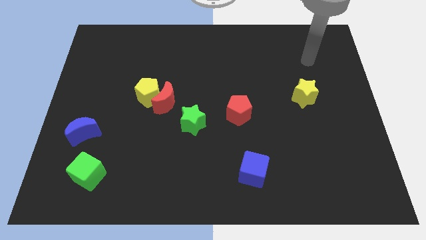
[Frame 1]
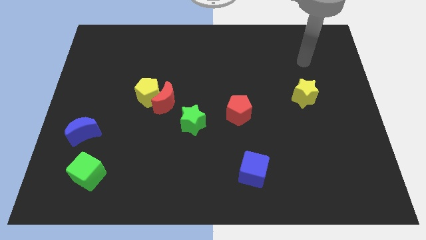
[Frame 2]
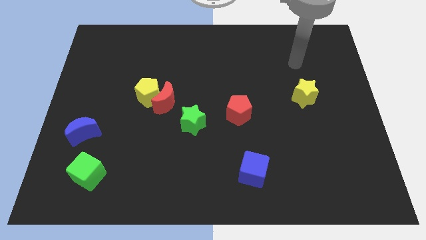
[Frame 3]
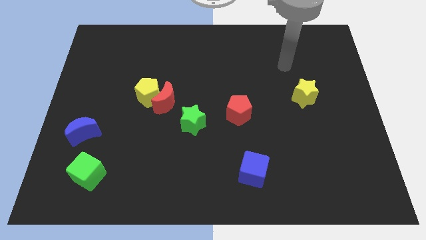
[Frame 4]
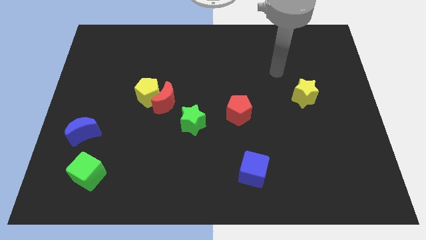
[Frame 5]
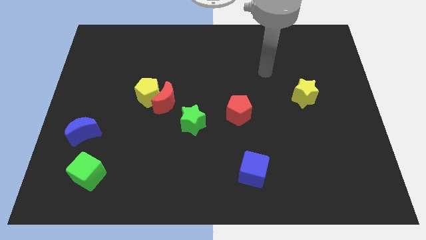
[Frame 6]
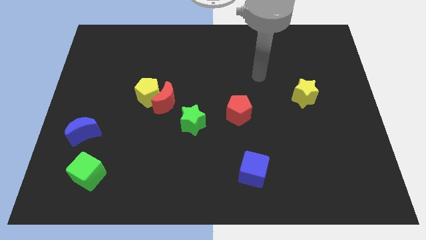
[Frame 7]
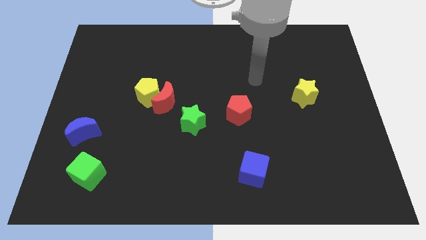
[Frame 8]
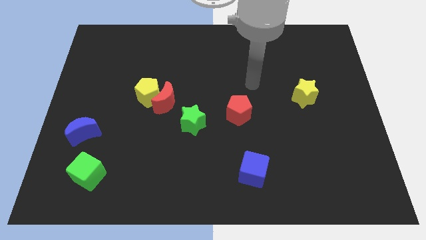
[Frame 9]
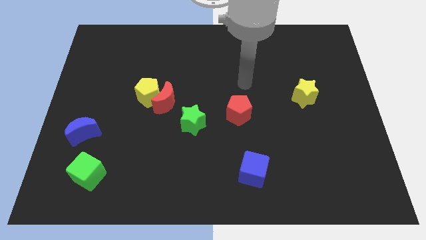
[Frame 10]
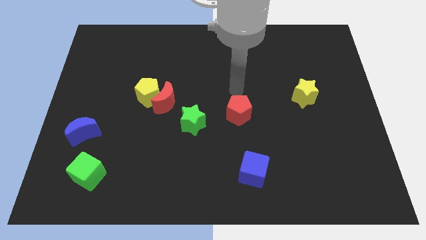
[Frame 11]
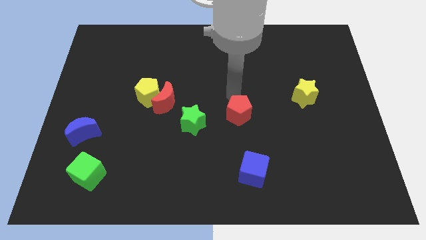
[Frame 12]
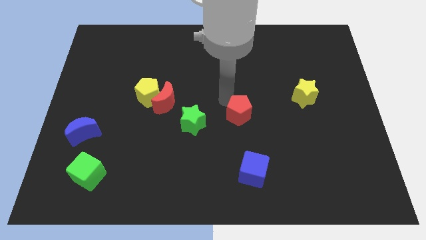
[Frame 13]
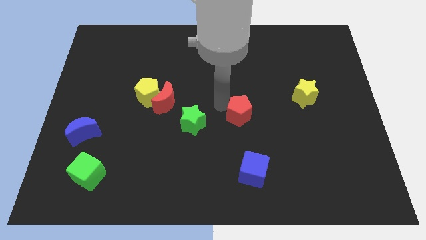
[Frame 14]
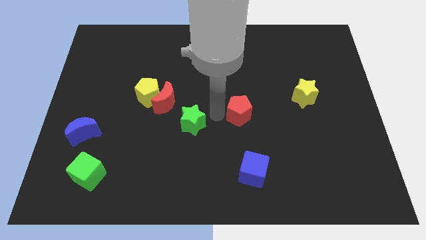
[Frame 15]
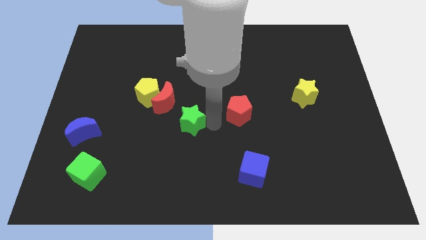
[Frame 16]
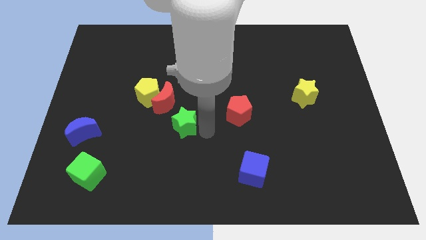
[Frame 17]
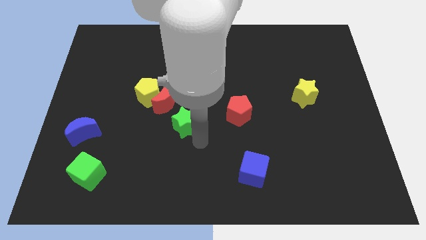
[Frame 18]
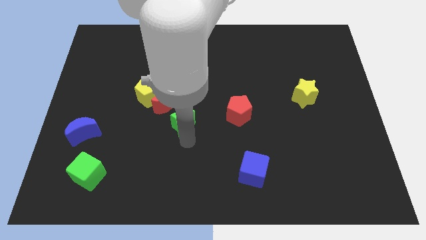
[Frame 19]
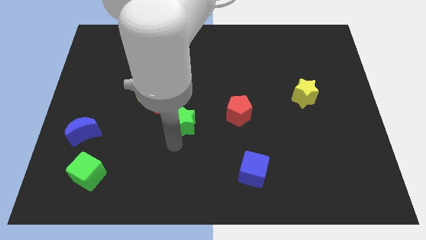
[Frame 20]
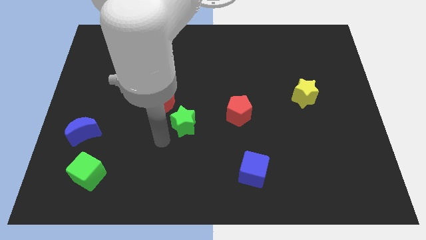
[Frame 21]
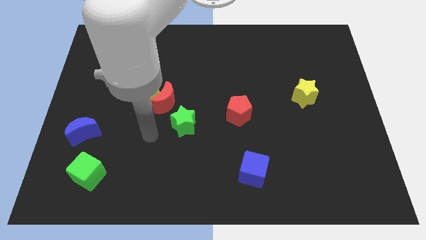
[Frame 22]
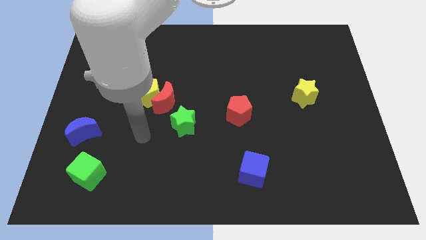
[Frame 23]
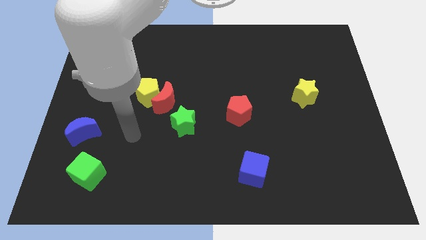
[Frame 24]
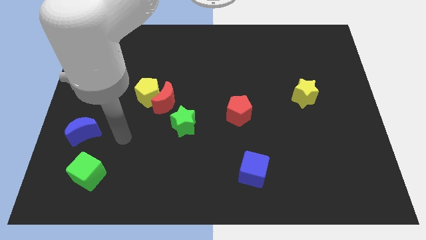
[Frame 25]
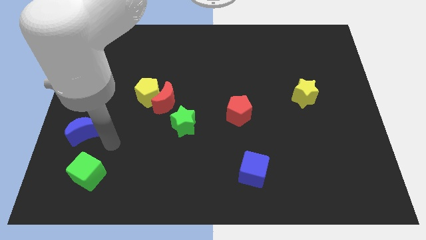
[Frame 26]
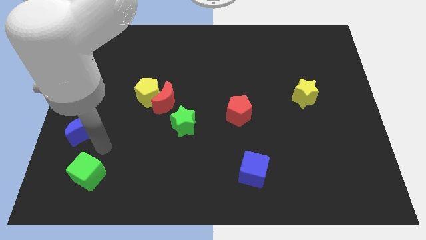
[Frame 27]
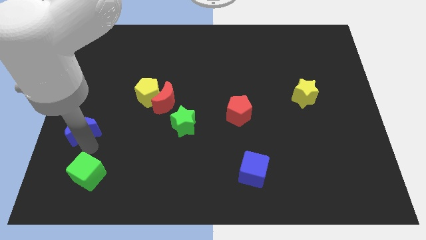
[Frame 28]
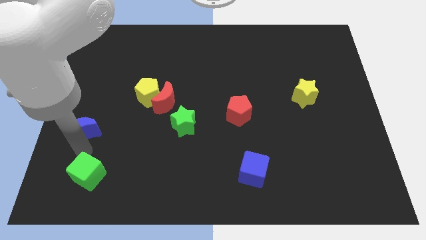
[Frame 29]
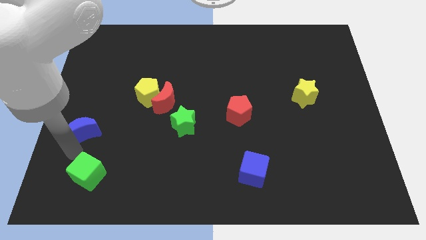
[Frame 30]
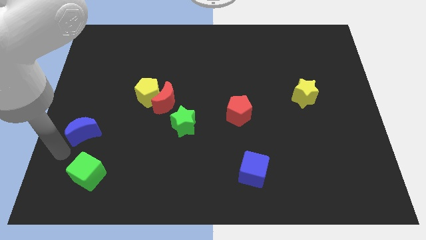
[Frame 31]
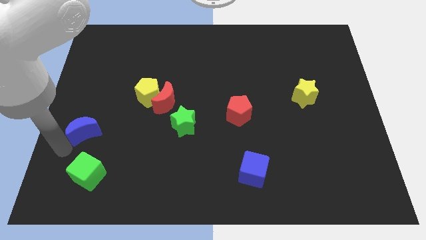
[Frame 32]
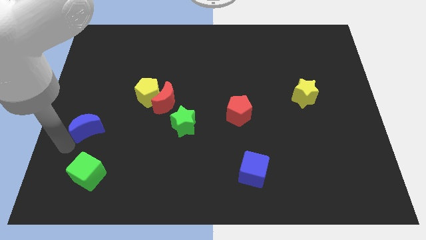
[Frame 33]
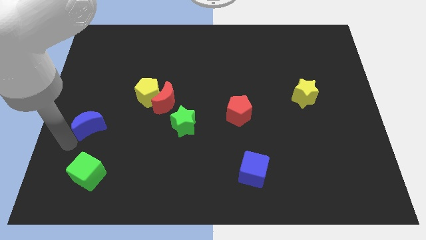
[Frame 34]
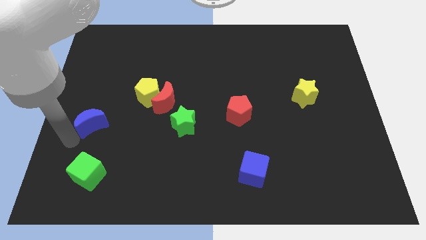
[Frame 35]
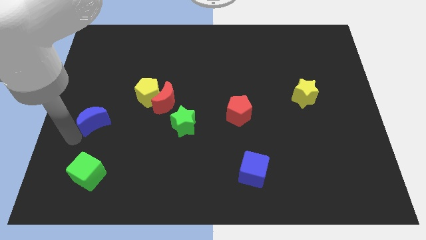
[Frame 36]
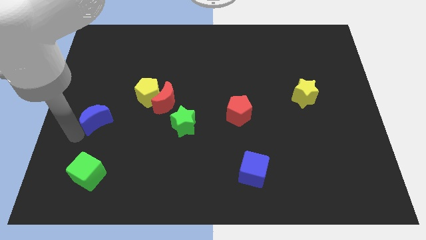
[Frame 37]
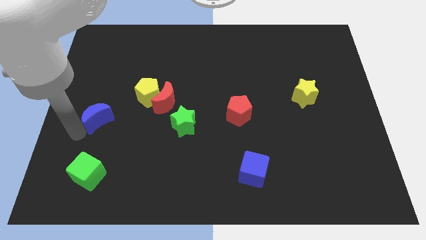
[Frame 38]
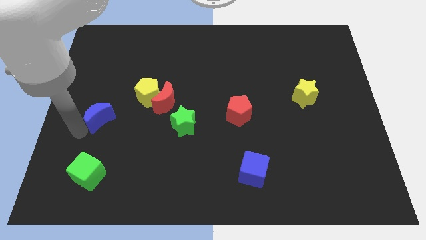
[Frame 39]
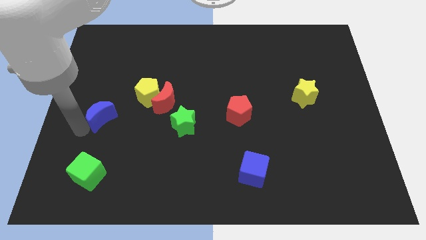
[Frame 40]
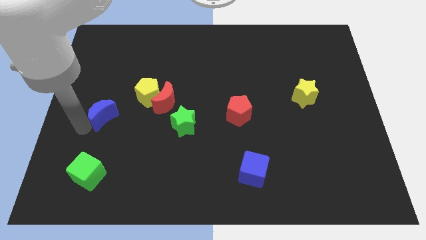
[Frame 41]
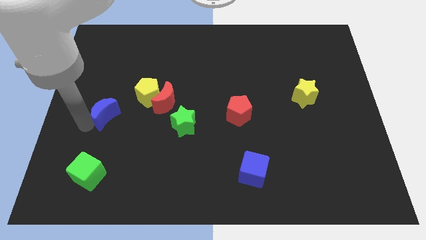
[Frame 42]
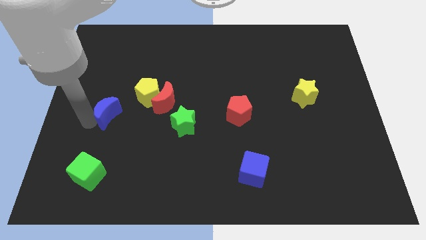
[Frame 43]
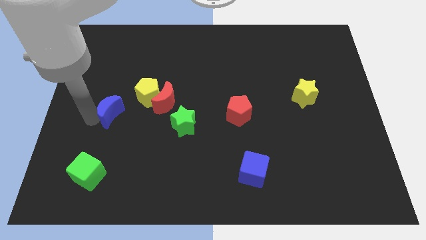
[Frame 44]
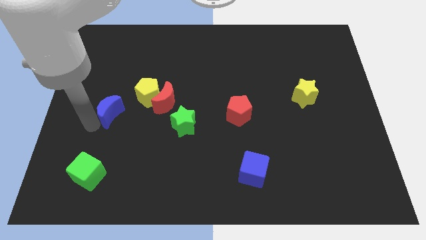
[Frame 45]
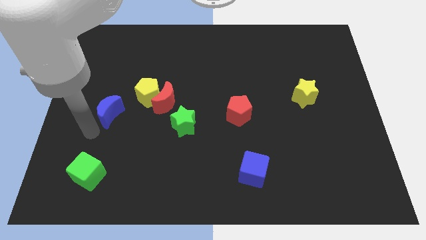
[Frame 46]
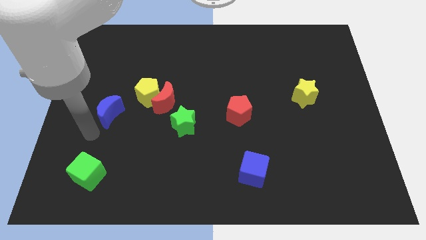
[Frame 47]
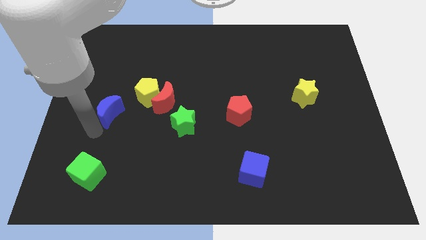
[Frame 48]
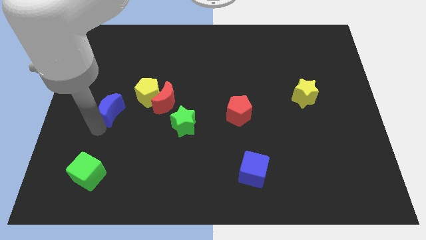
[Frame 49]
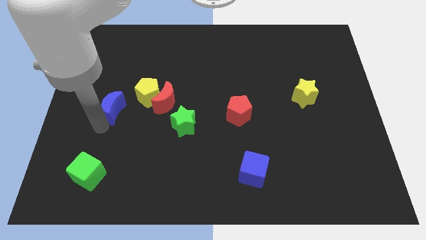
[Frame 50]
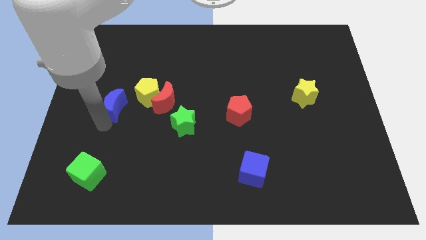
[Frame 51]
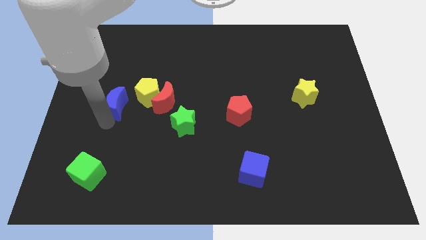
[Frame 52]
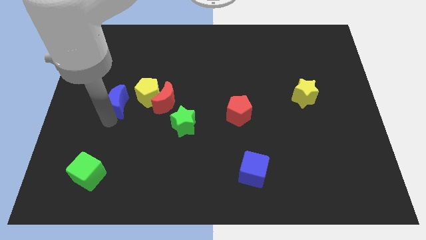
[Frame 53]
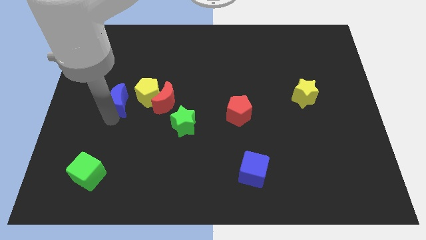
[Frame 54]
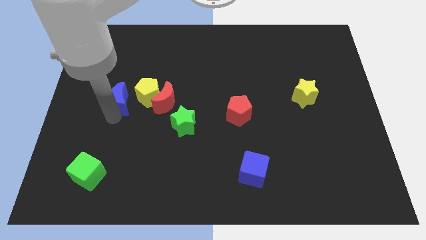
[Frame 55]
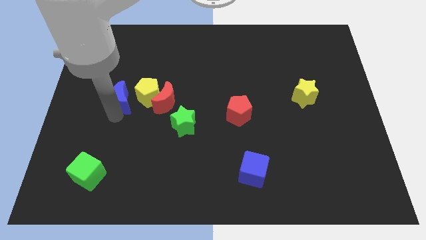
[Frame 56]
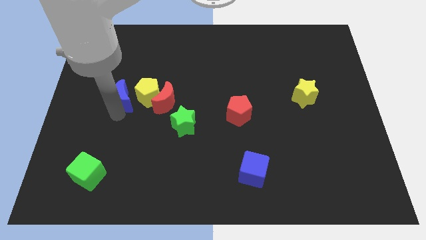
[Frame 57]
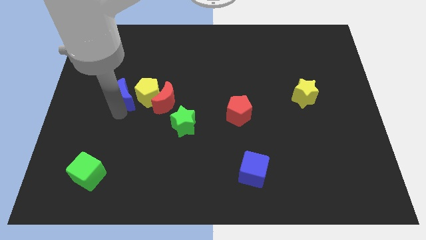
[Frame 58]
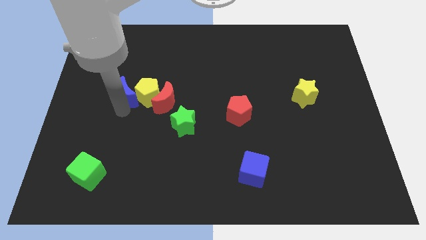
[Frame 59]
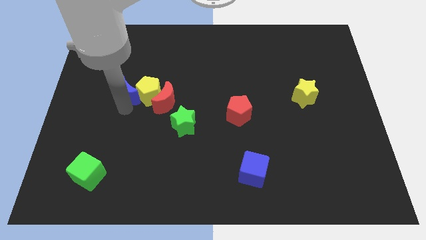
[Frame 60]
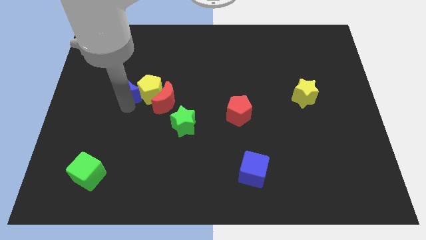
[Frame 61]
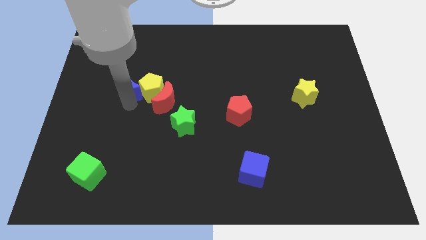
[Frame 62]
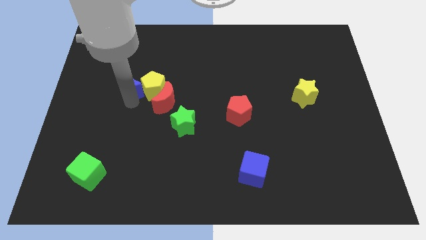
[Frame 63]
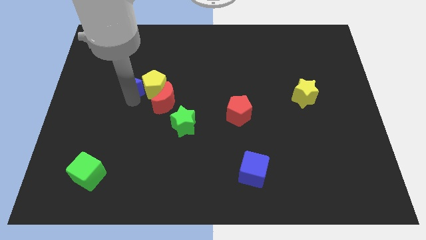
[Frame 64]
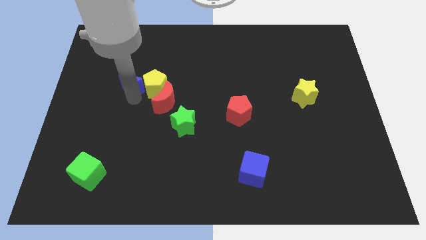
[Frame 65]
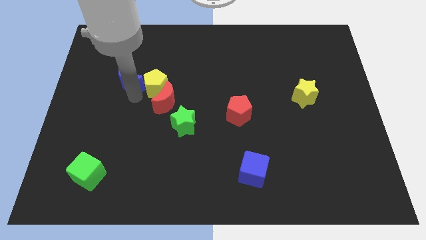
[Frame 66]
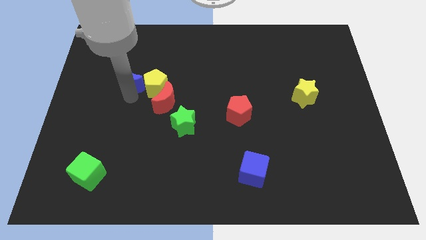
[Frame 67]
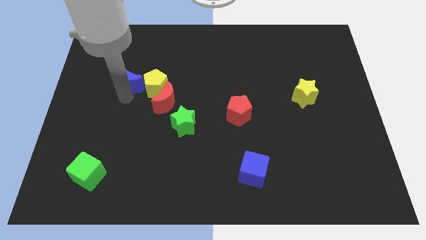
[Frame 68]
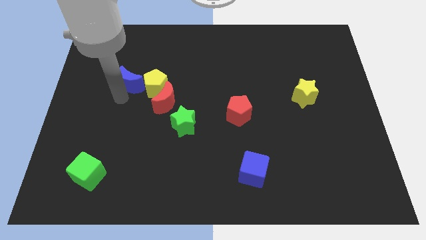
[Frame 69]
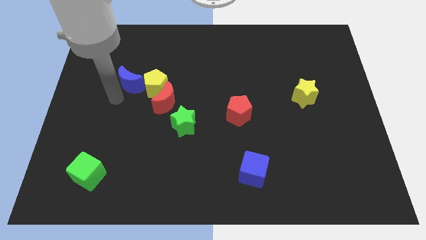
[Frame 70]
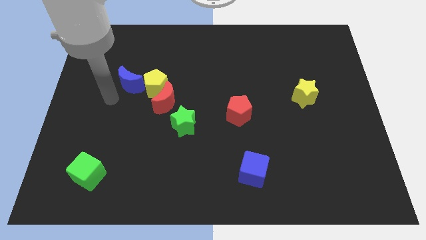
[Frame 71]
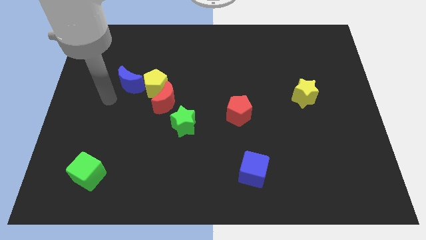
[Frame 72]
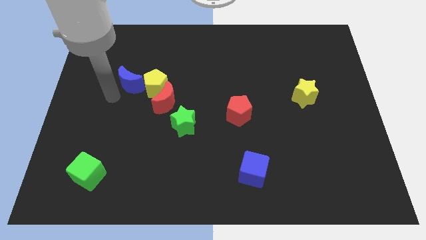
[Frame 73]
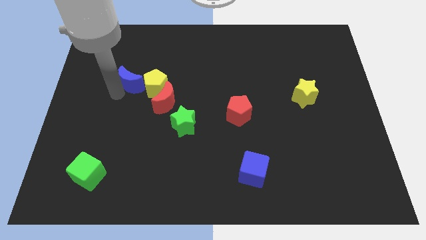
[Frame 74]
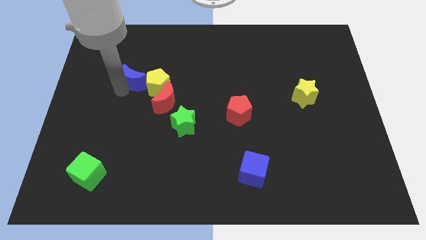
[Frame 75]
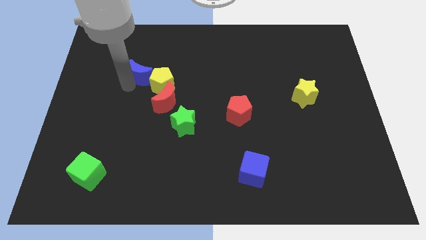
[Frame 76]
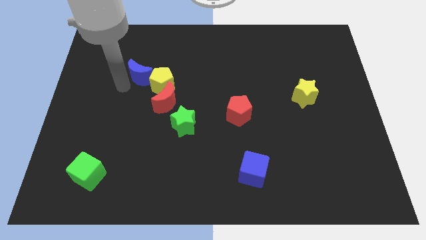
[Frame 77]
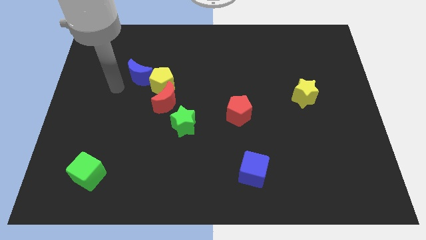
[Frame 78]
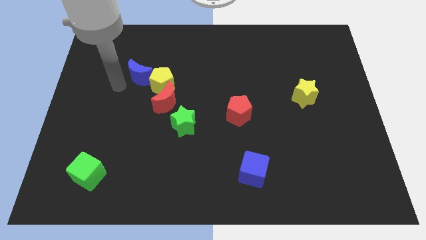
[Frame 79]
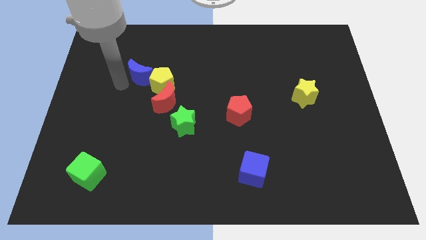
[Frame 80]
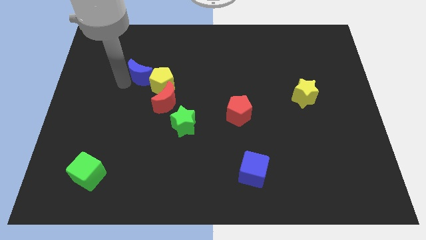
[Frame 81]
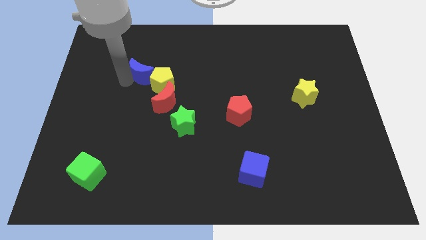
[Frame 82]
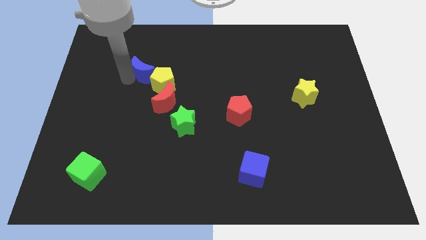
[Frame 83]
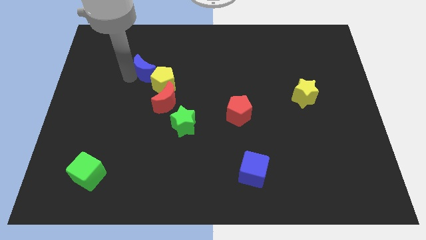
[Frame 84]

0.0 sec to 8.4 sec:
push the blue moon diagonally up and right
